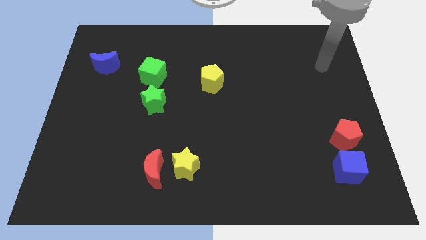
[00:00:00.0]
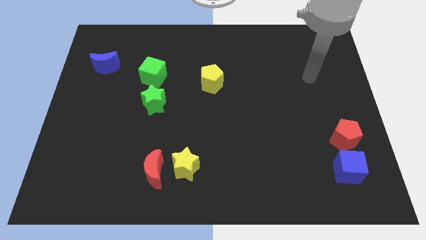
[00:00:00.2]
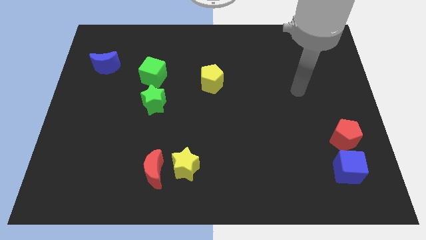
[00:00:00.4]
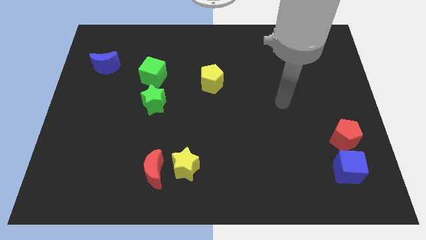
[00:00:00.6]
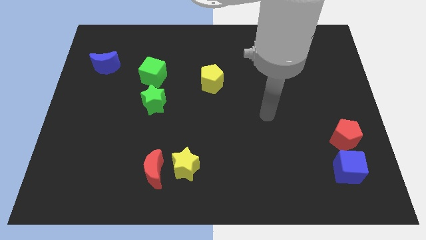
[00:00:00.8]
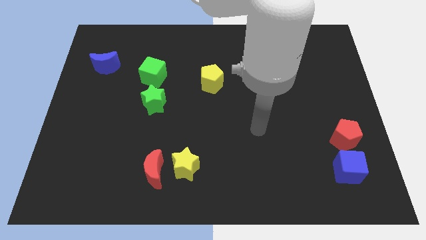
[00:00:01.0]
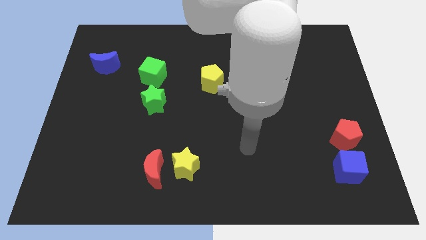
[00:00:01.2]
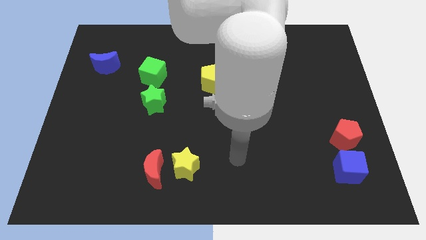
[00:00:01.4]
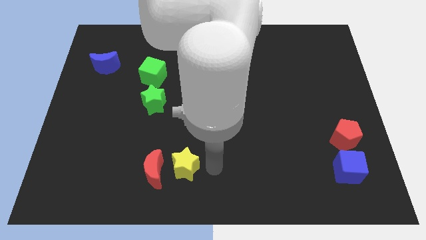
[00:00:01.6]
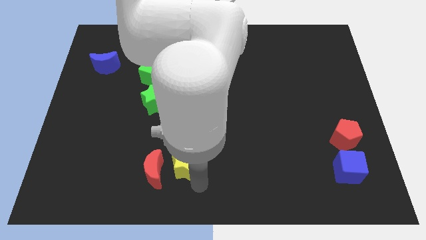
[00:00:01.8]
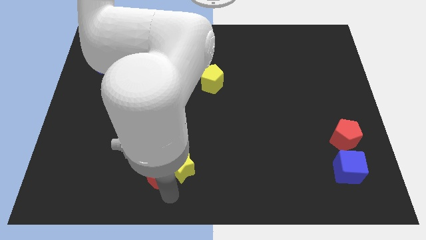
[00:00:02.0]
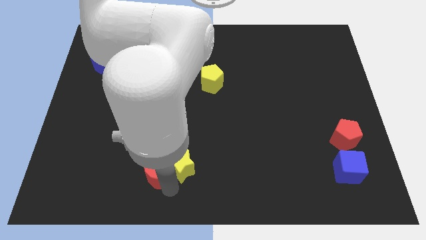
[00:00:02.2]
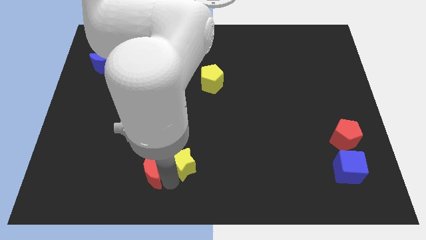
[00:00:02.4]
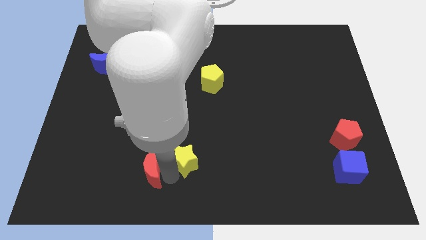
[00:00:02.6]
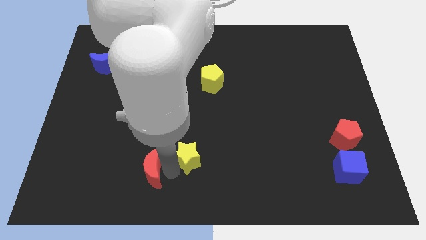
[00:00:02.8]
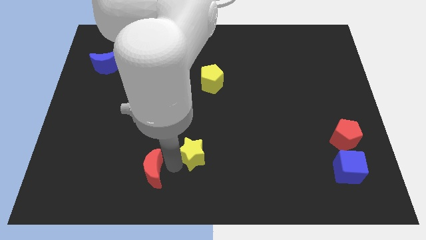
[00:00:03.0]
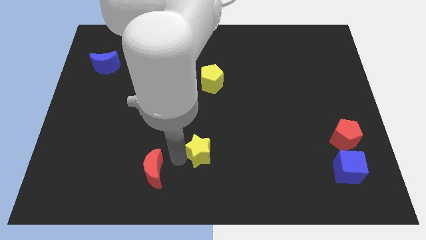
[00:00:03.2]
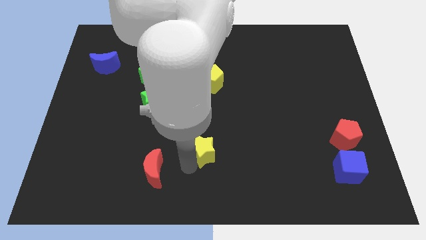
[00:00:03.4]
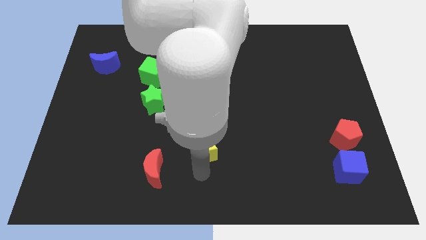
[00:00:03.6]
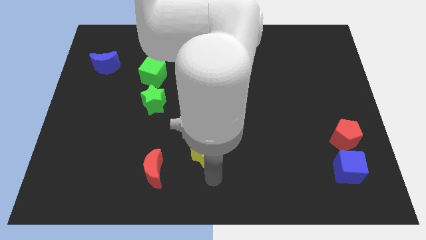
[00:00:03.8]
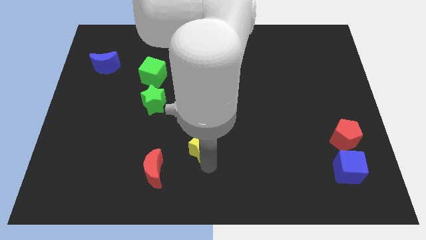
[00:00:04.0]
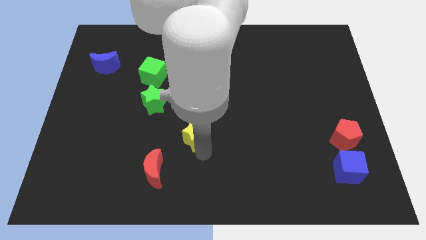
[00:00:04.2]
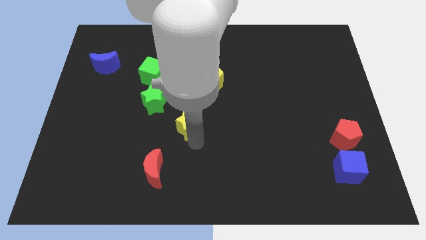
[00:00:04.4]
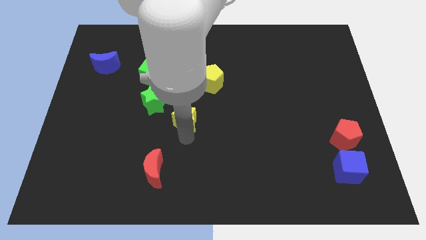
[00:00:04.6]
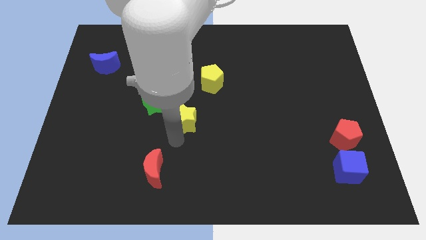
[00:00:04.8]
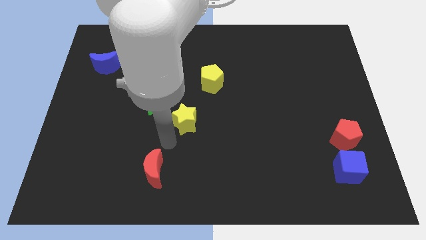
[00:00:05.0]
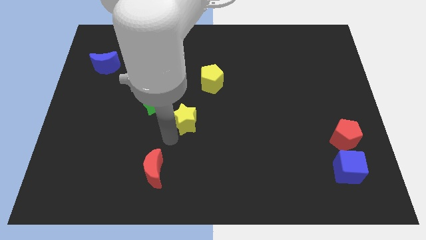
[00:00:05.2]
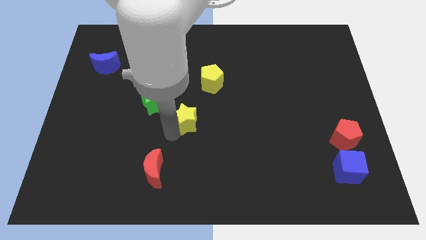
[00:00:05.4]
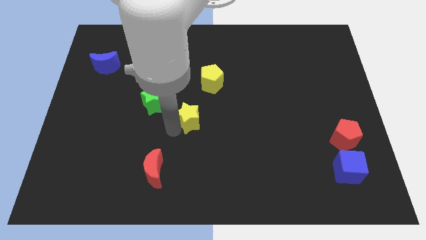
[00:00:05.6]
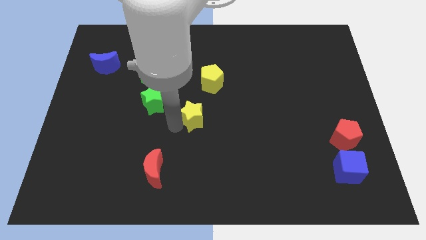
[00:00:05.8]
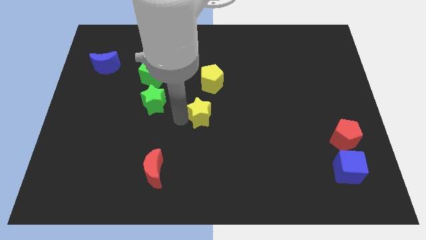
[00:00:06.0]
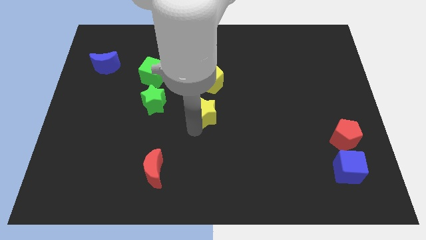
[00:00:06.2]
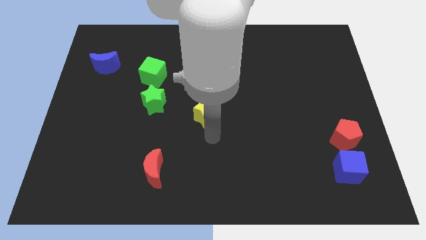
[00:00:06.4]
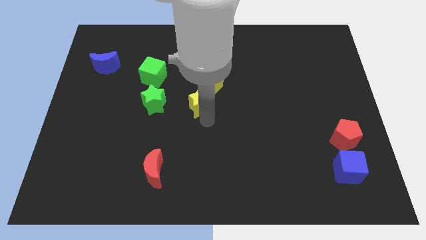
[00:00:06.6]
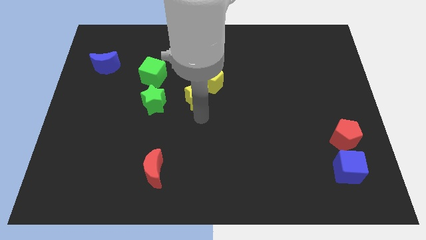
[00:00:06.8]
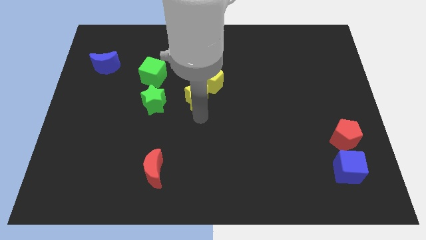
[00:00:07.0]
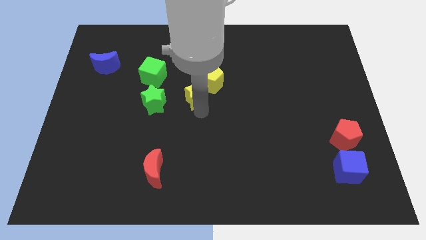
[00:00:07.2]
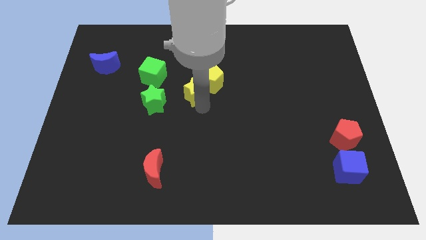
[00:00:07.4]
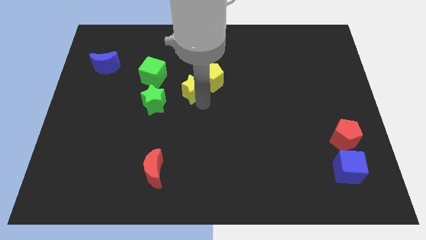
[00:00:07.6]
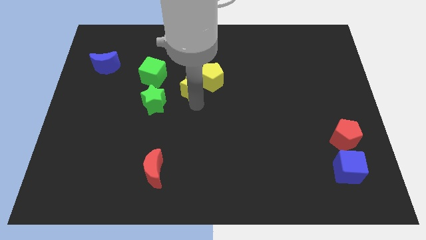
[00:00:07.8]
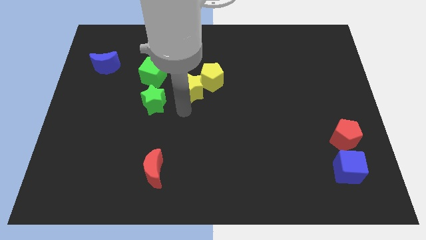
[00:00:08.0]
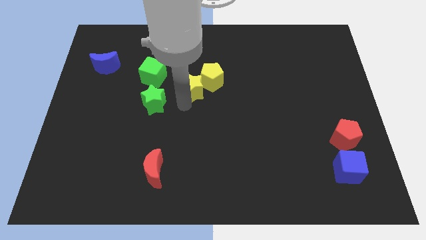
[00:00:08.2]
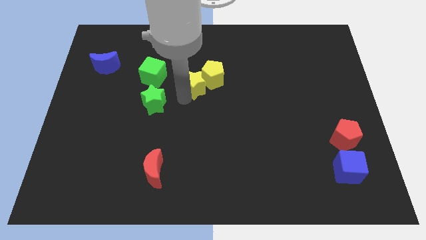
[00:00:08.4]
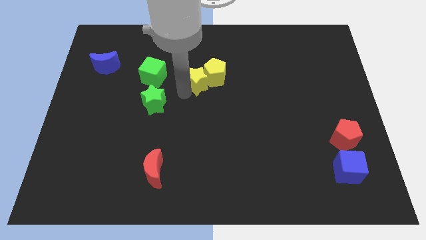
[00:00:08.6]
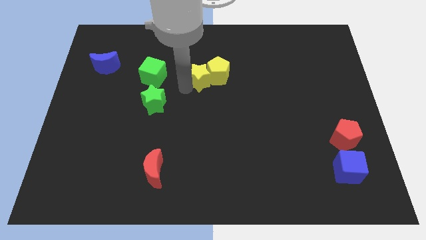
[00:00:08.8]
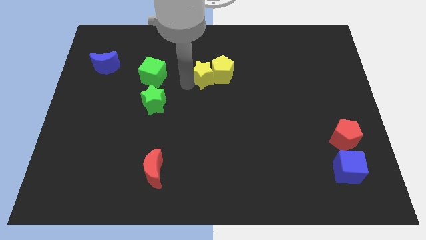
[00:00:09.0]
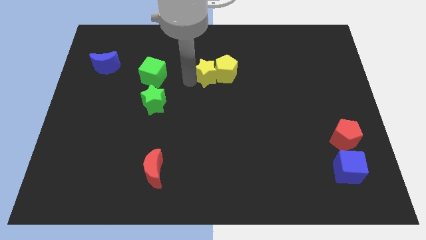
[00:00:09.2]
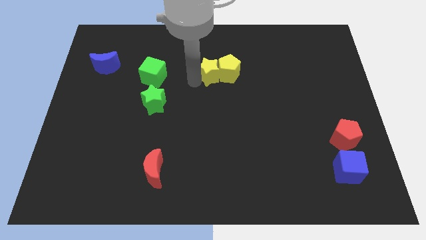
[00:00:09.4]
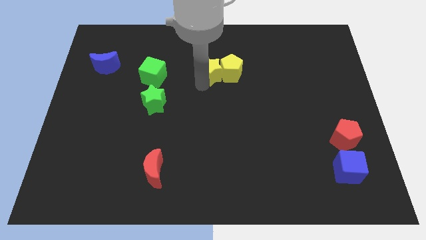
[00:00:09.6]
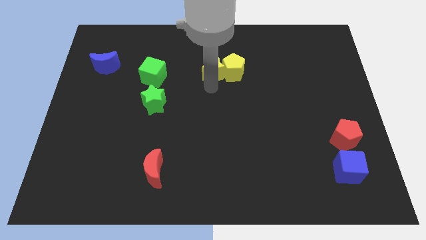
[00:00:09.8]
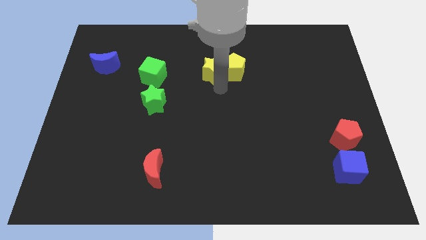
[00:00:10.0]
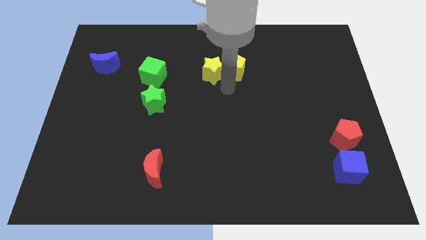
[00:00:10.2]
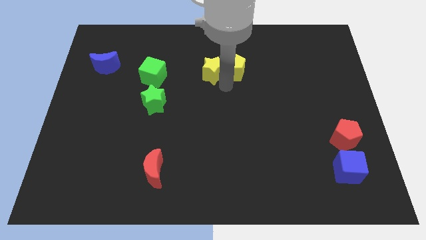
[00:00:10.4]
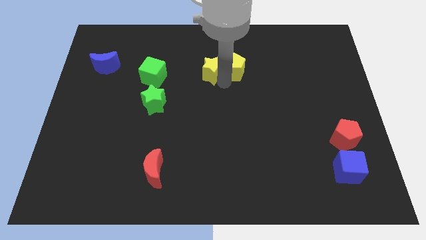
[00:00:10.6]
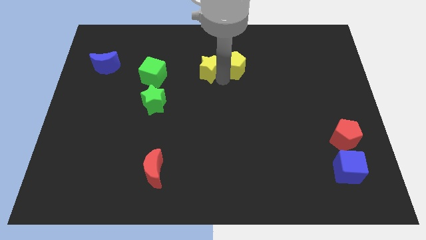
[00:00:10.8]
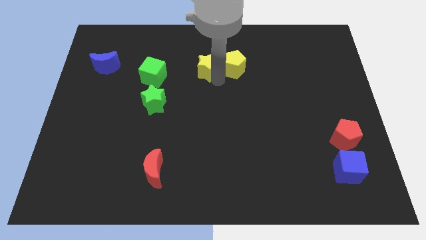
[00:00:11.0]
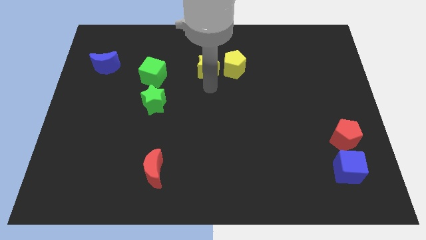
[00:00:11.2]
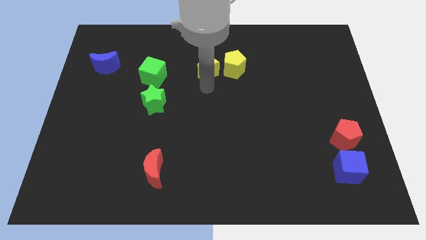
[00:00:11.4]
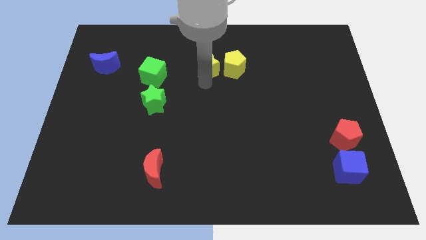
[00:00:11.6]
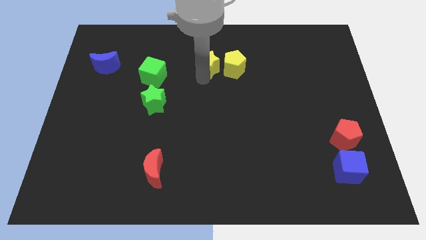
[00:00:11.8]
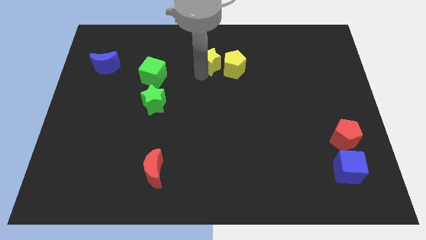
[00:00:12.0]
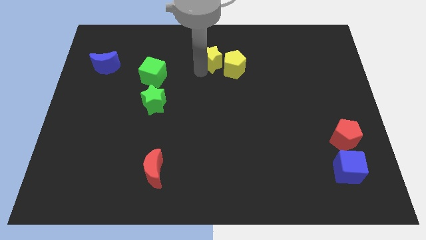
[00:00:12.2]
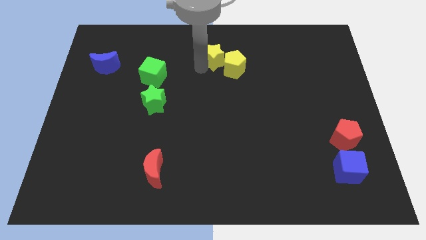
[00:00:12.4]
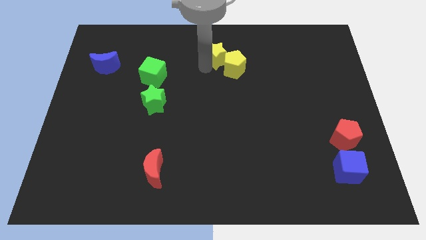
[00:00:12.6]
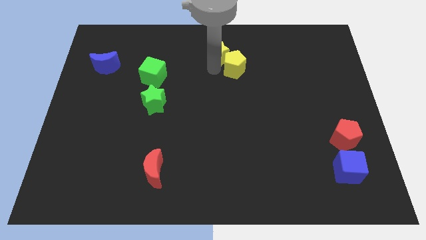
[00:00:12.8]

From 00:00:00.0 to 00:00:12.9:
move the yellow star to the towards your base
